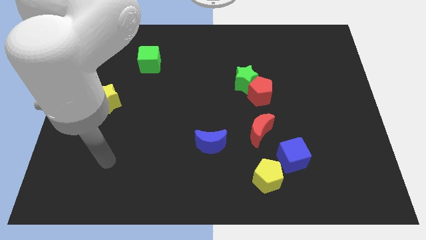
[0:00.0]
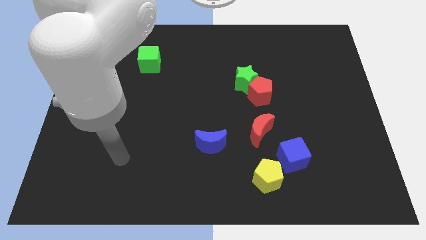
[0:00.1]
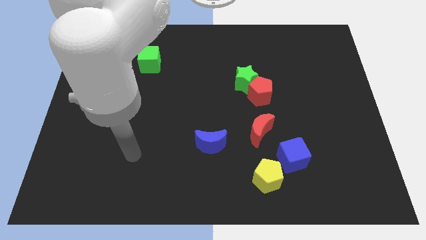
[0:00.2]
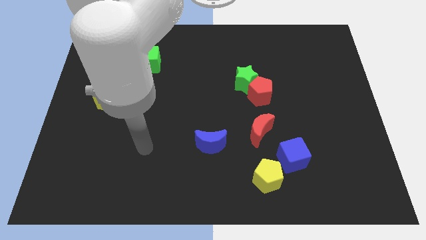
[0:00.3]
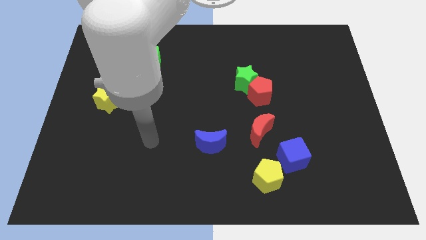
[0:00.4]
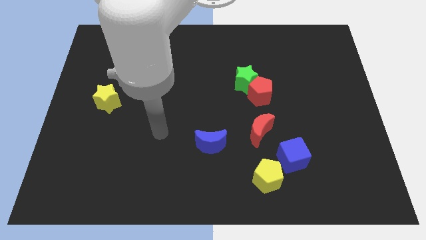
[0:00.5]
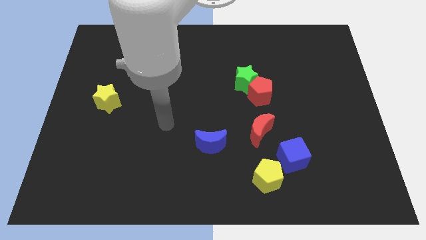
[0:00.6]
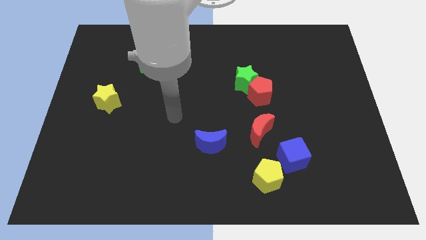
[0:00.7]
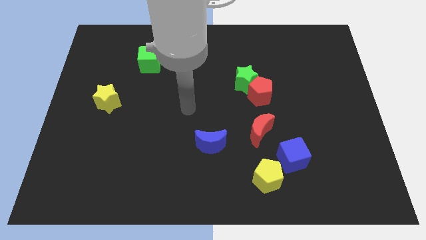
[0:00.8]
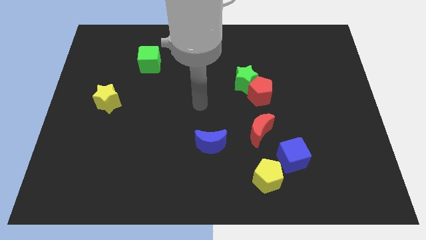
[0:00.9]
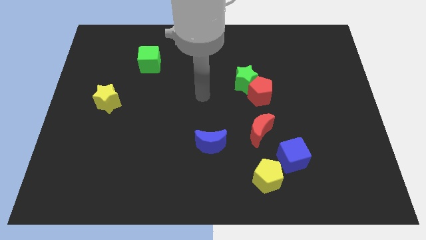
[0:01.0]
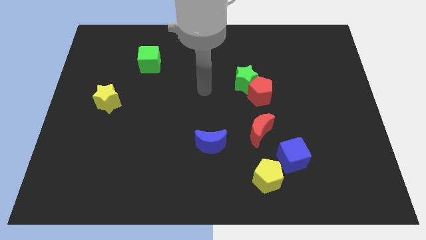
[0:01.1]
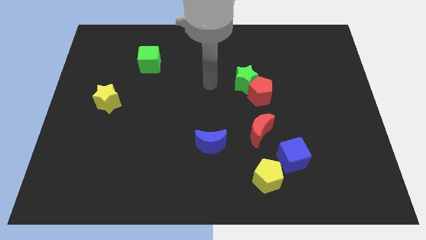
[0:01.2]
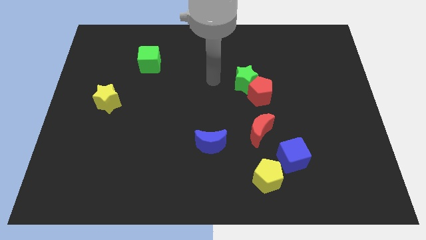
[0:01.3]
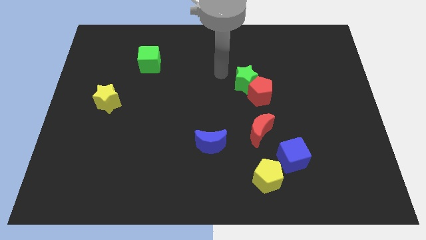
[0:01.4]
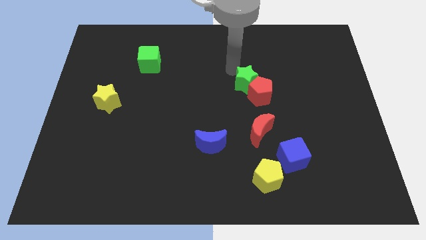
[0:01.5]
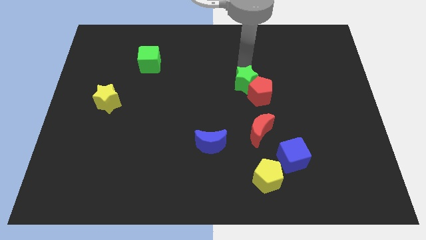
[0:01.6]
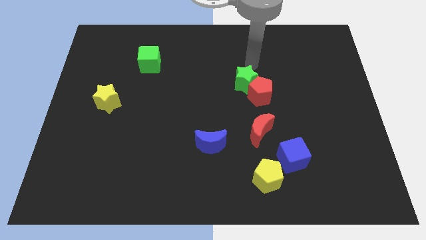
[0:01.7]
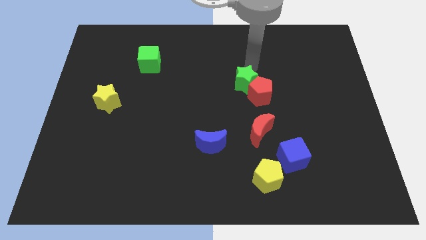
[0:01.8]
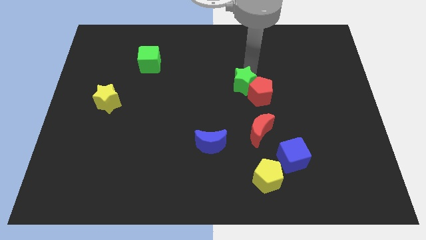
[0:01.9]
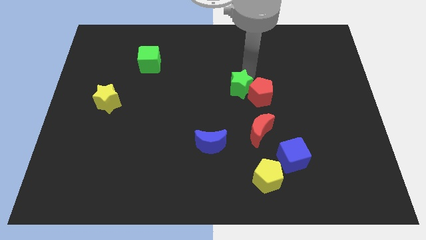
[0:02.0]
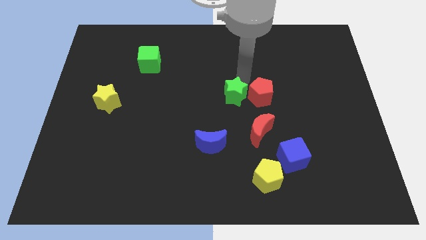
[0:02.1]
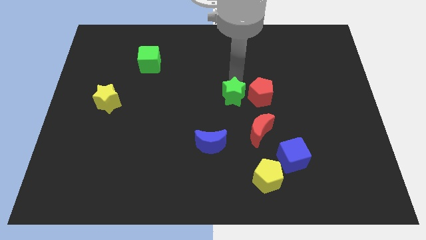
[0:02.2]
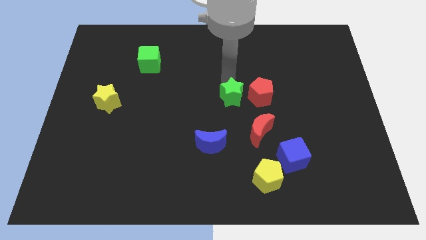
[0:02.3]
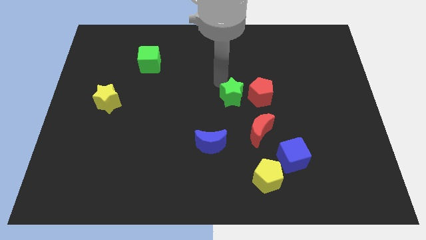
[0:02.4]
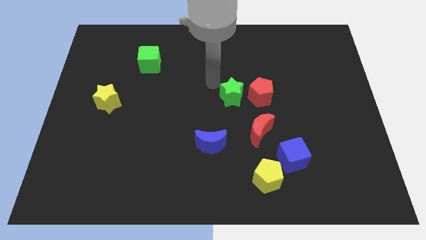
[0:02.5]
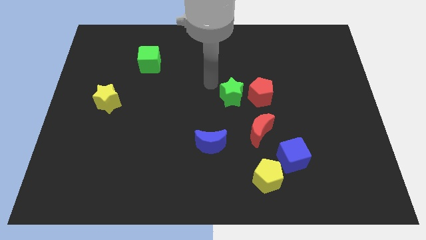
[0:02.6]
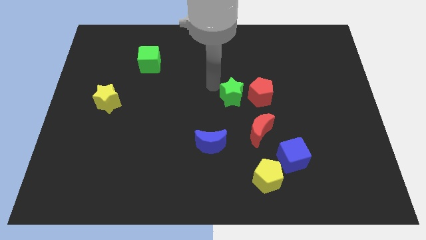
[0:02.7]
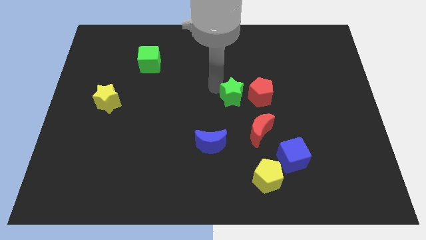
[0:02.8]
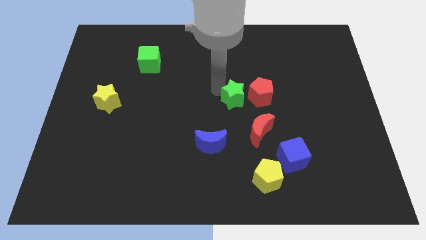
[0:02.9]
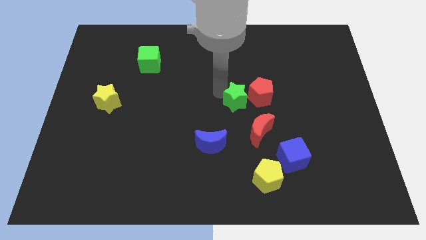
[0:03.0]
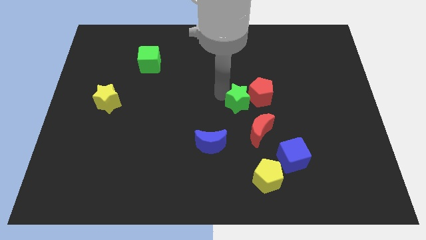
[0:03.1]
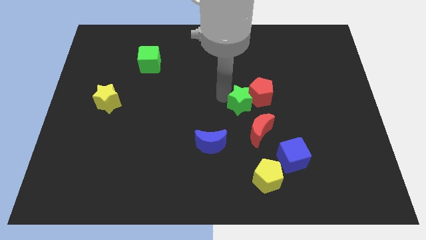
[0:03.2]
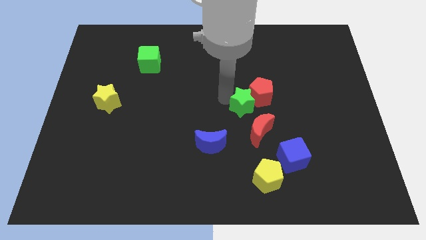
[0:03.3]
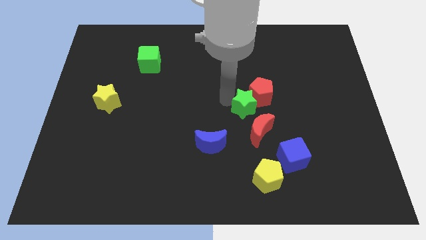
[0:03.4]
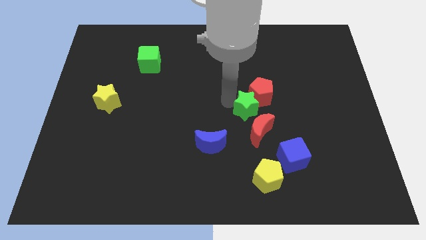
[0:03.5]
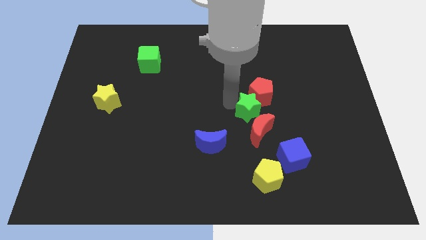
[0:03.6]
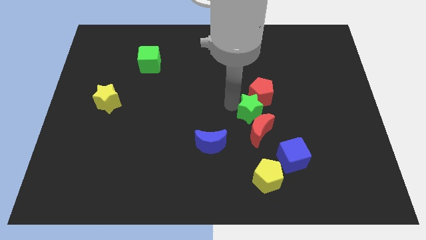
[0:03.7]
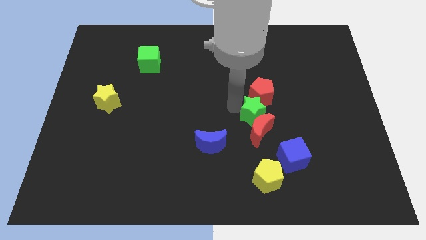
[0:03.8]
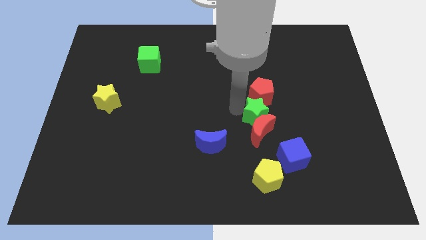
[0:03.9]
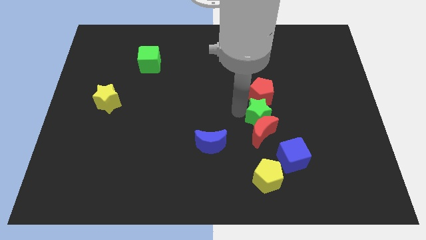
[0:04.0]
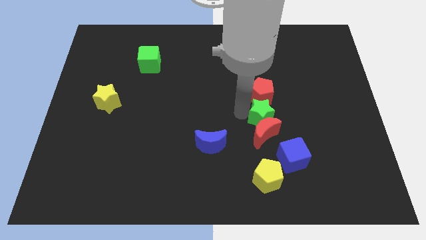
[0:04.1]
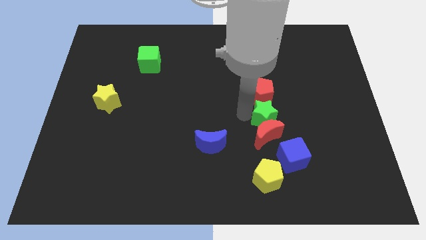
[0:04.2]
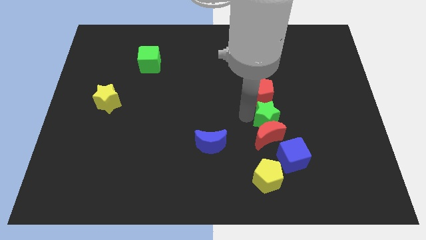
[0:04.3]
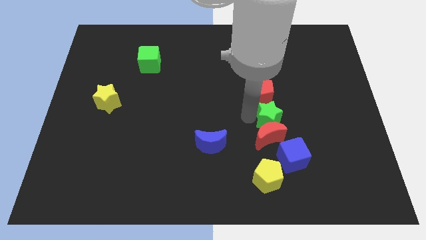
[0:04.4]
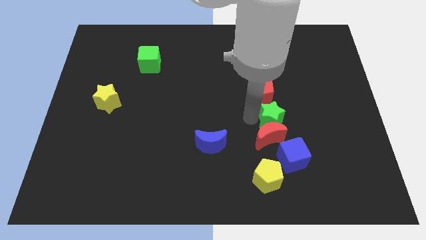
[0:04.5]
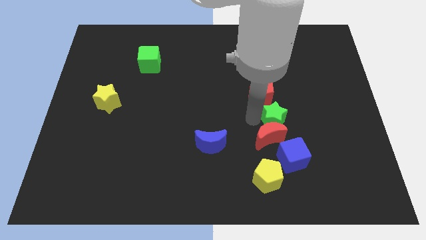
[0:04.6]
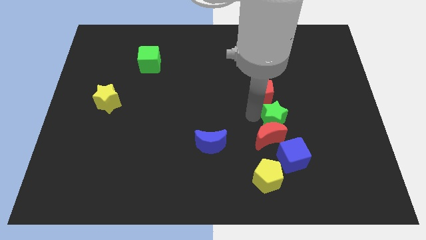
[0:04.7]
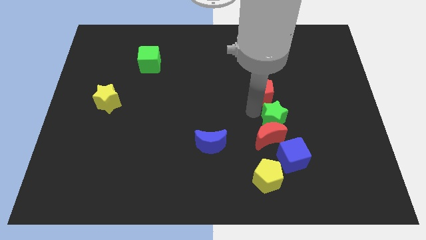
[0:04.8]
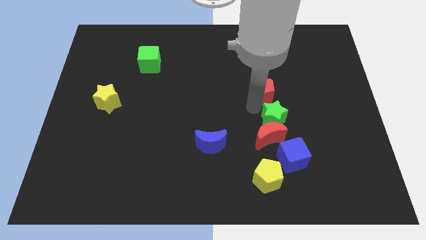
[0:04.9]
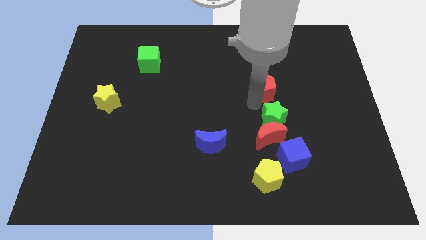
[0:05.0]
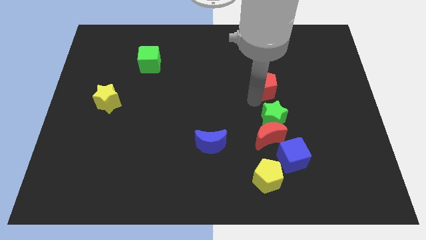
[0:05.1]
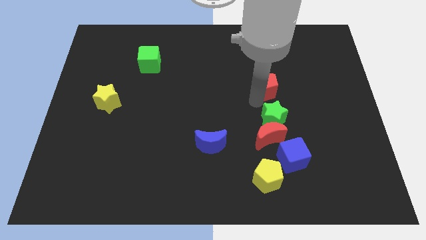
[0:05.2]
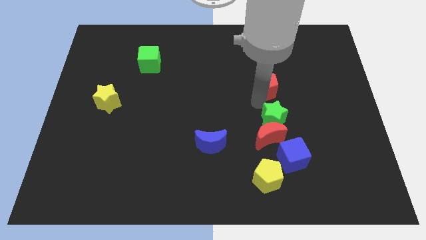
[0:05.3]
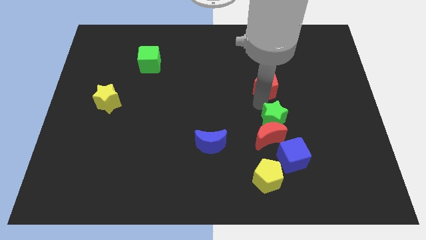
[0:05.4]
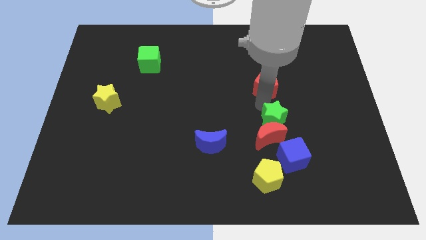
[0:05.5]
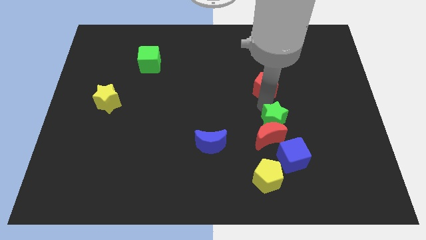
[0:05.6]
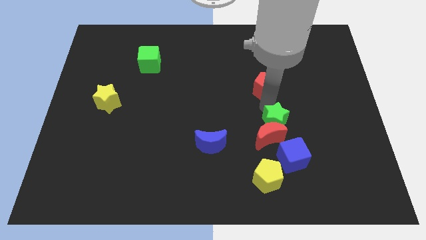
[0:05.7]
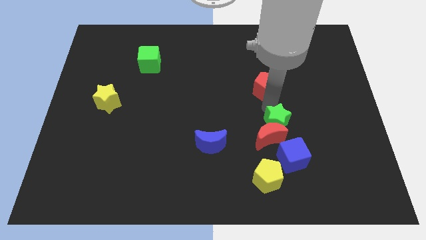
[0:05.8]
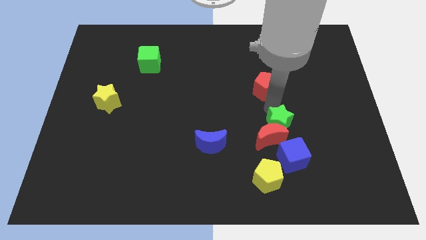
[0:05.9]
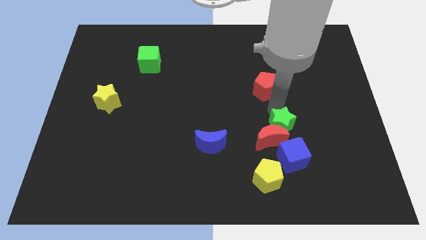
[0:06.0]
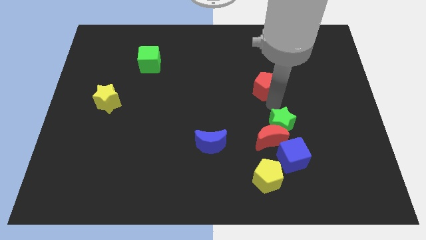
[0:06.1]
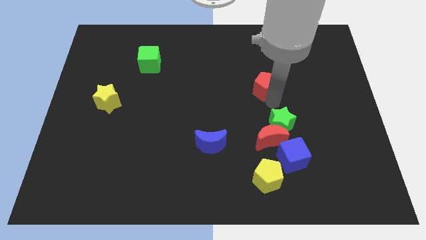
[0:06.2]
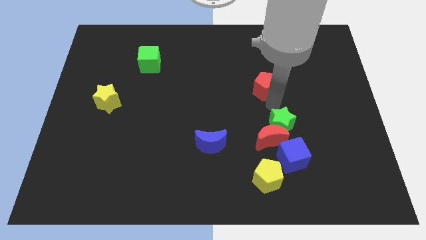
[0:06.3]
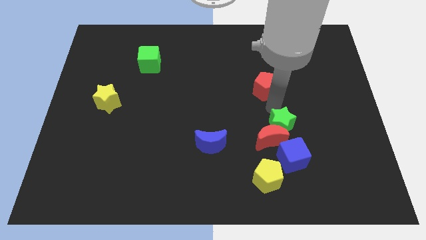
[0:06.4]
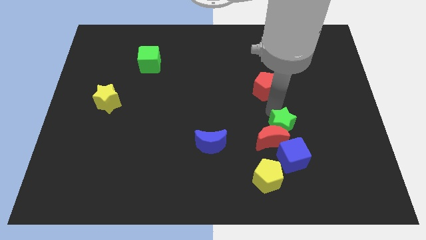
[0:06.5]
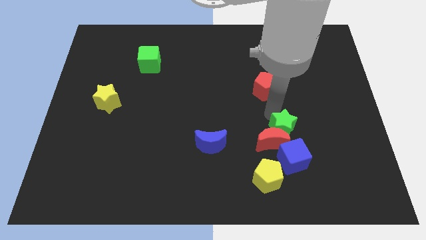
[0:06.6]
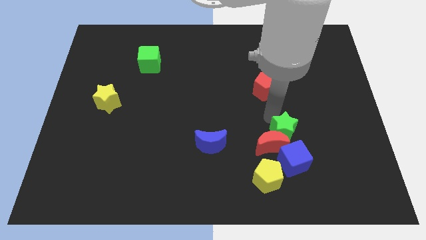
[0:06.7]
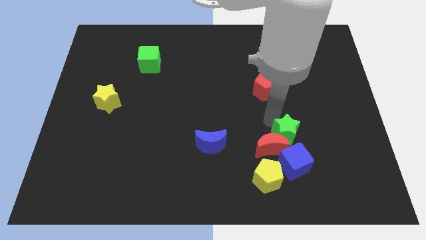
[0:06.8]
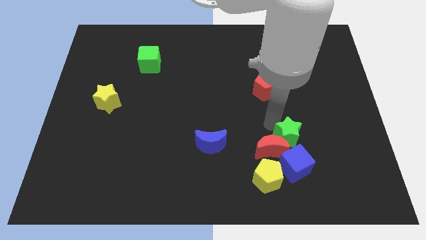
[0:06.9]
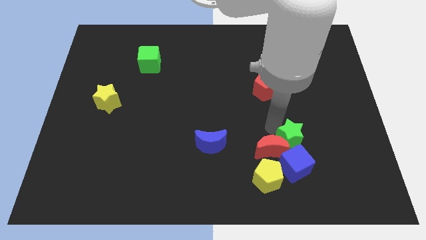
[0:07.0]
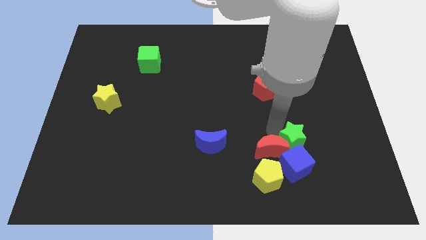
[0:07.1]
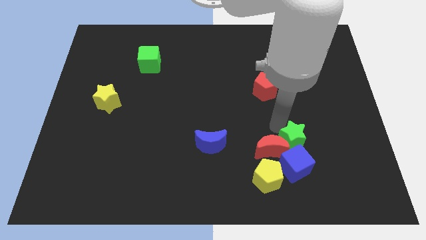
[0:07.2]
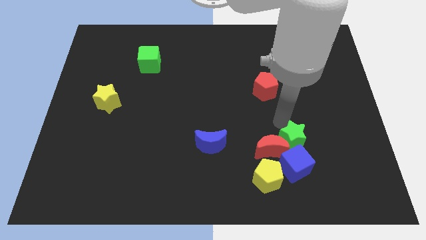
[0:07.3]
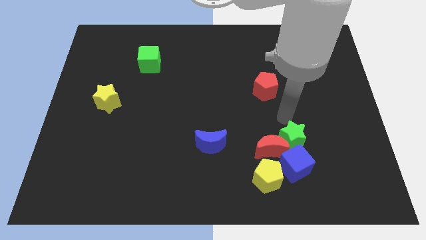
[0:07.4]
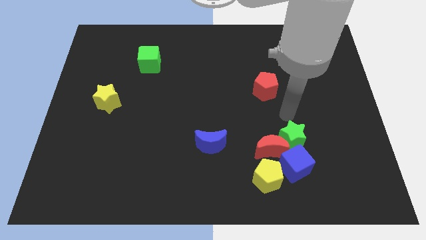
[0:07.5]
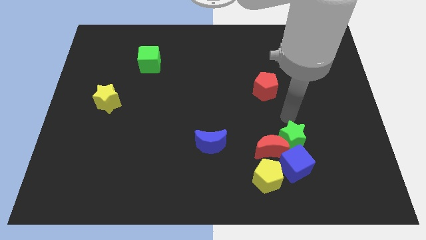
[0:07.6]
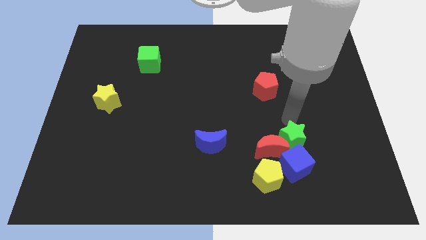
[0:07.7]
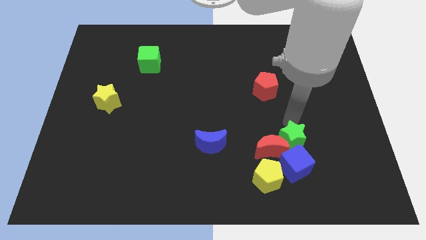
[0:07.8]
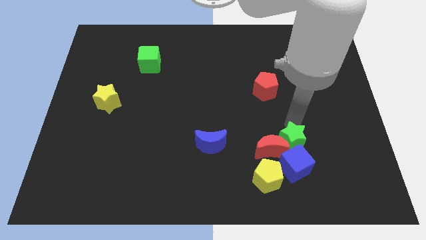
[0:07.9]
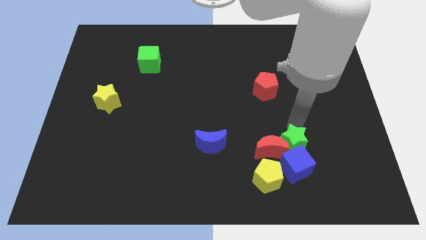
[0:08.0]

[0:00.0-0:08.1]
slide the green star towards the blue cube
